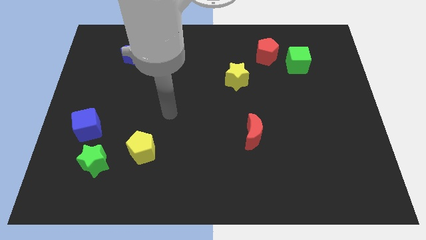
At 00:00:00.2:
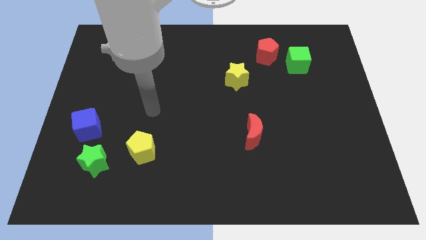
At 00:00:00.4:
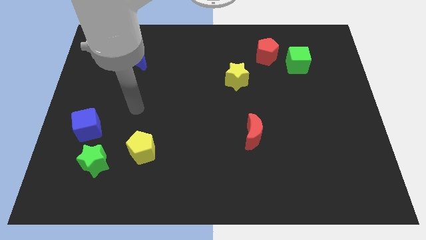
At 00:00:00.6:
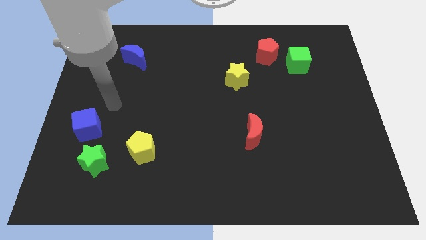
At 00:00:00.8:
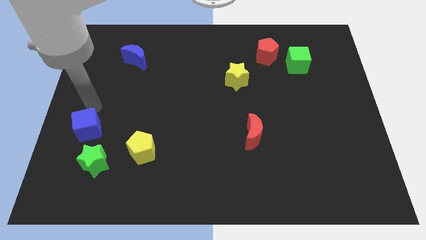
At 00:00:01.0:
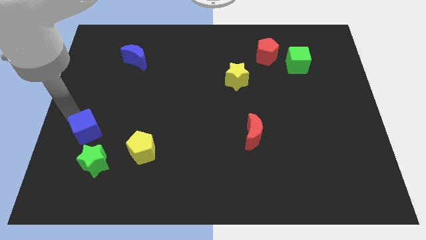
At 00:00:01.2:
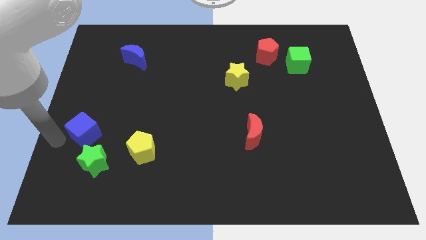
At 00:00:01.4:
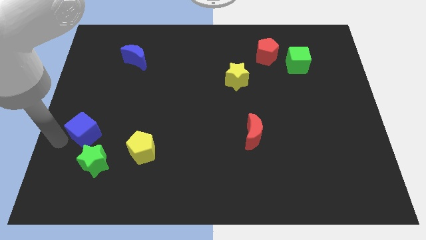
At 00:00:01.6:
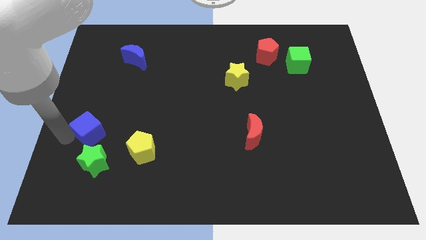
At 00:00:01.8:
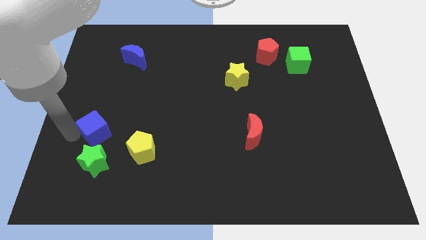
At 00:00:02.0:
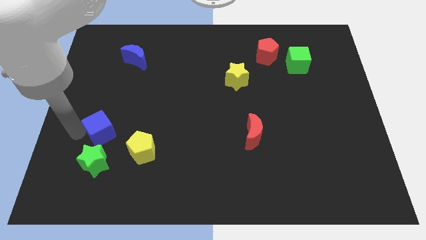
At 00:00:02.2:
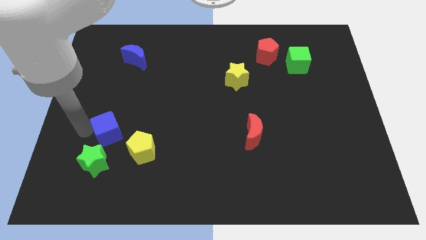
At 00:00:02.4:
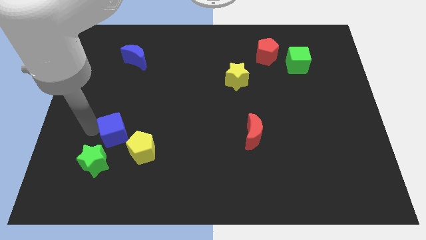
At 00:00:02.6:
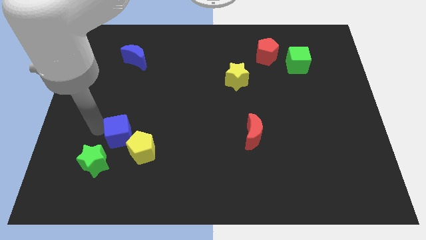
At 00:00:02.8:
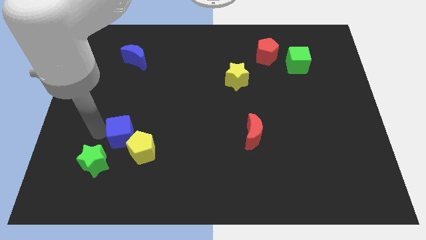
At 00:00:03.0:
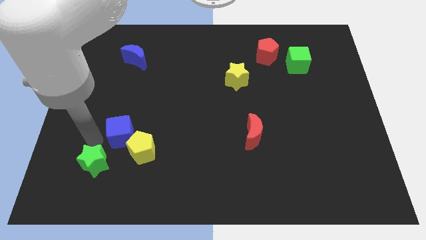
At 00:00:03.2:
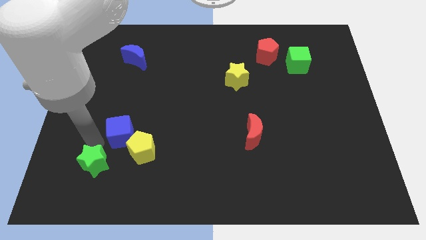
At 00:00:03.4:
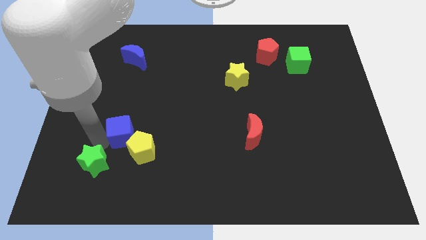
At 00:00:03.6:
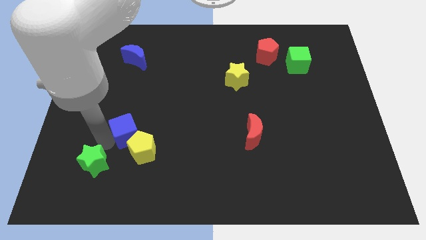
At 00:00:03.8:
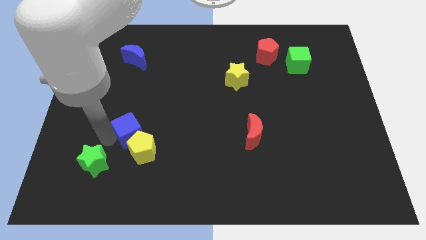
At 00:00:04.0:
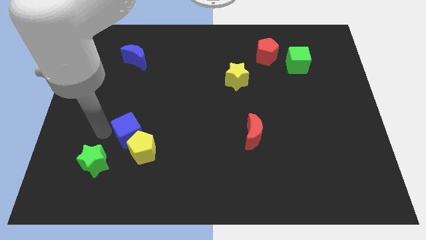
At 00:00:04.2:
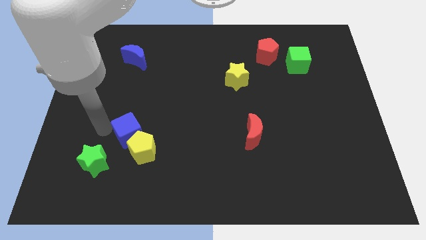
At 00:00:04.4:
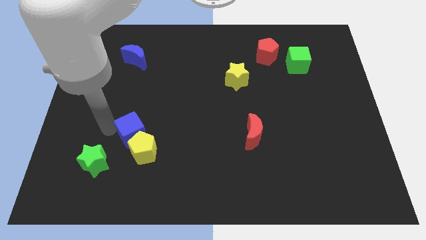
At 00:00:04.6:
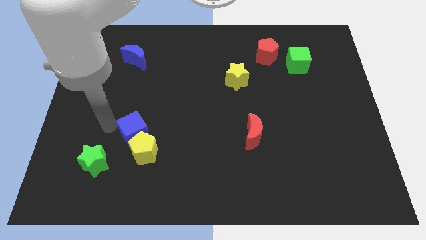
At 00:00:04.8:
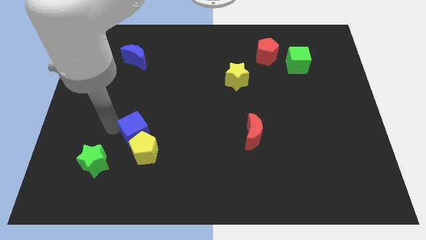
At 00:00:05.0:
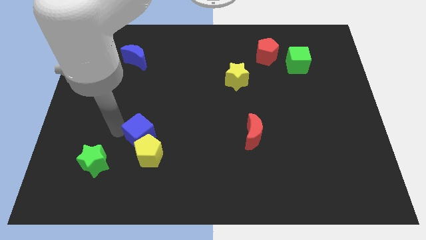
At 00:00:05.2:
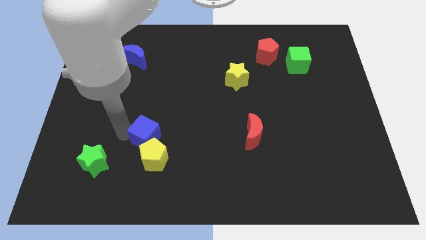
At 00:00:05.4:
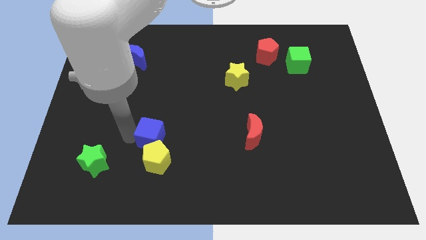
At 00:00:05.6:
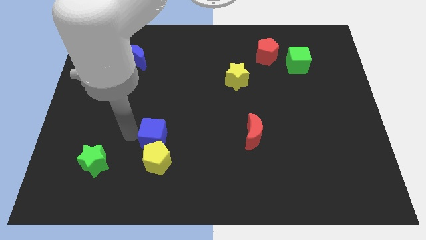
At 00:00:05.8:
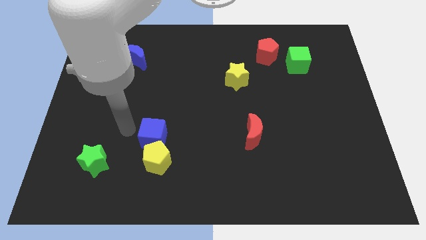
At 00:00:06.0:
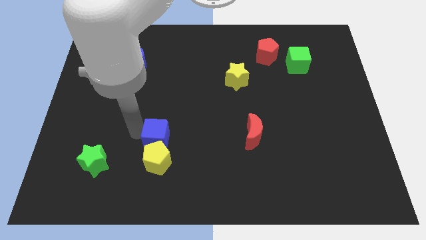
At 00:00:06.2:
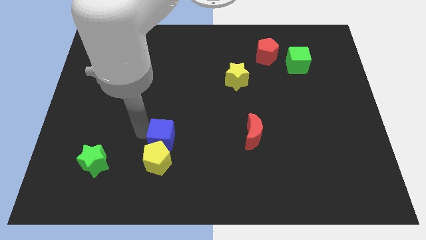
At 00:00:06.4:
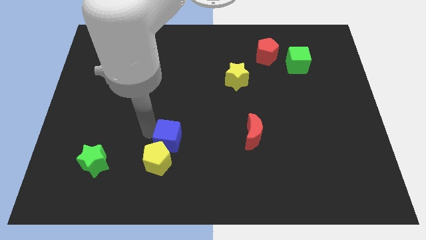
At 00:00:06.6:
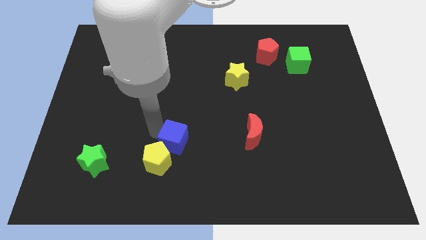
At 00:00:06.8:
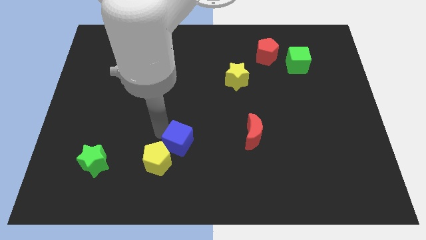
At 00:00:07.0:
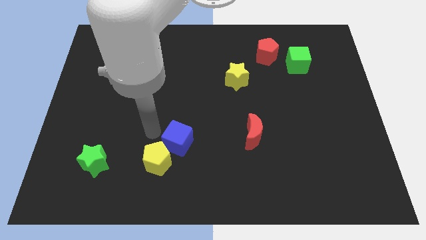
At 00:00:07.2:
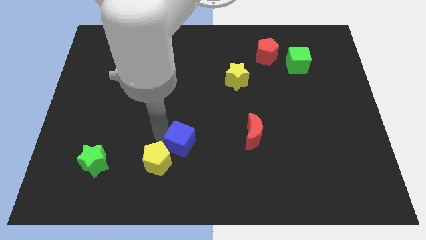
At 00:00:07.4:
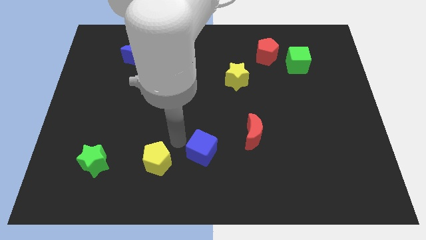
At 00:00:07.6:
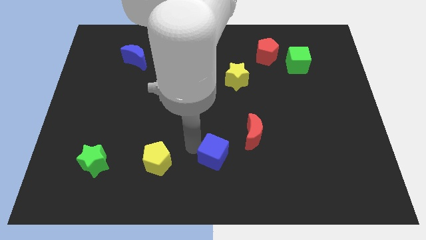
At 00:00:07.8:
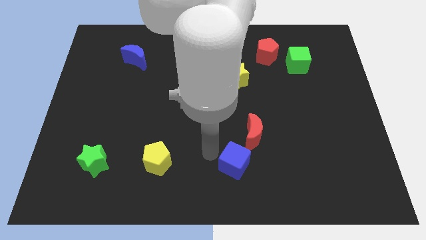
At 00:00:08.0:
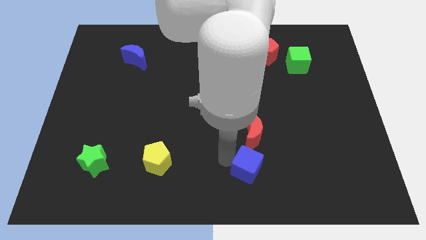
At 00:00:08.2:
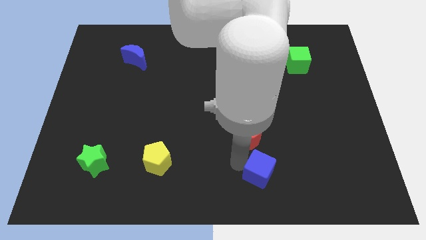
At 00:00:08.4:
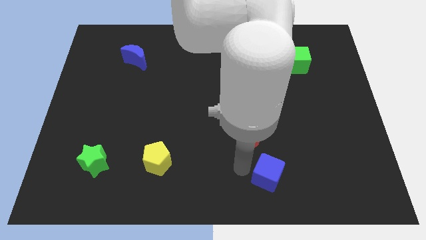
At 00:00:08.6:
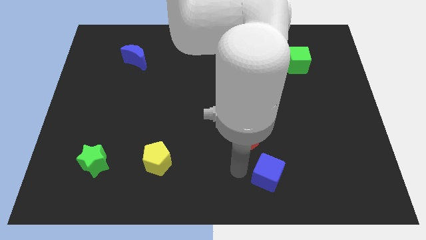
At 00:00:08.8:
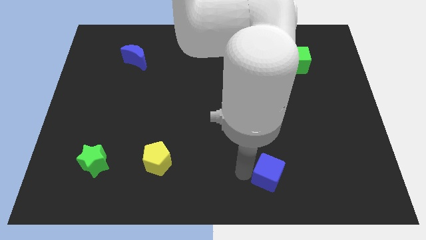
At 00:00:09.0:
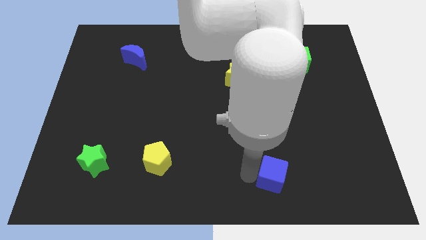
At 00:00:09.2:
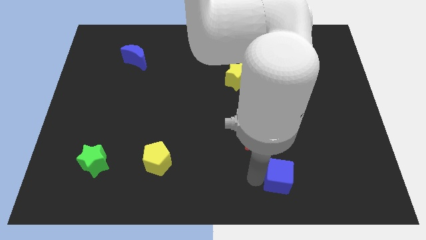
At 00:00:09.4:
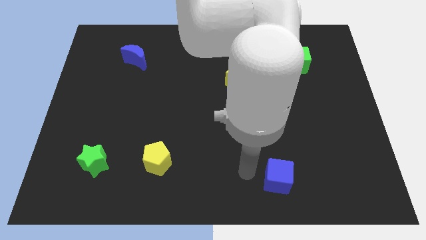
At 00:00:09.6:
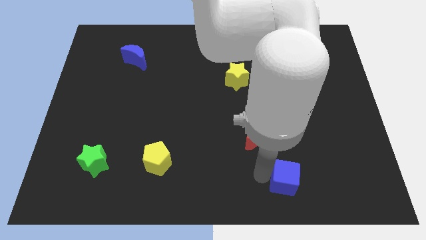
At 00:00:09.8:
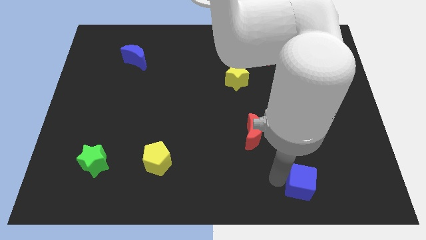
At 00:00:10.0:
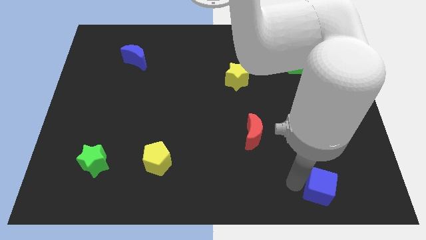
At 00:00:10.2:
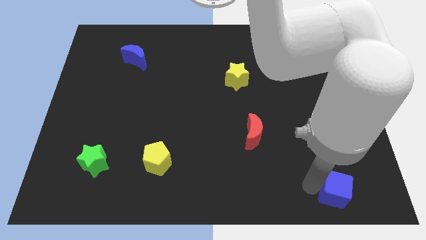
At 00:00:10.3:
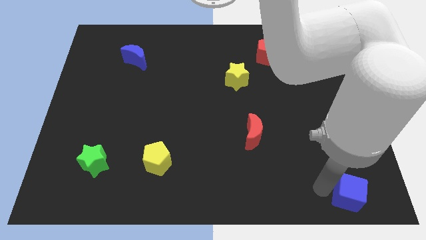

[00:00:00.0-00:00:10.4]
slide the blue cube to the lower right corner

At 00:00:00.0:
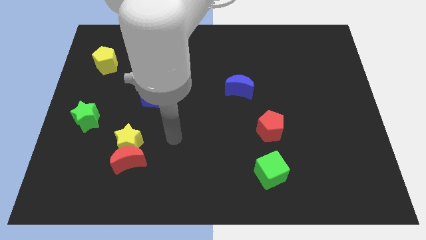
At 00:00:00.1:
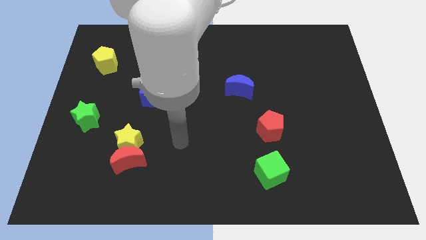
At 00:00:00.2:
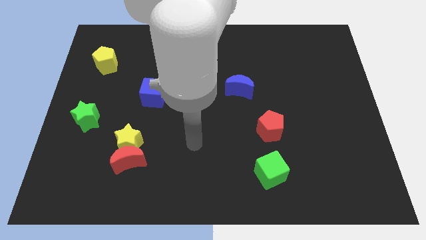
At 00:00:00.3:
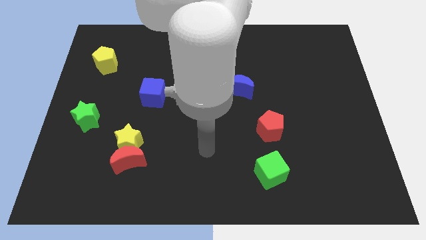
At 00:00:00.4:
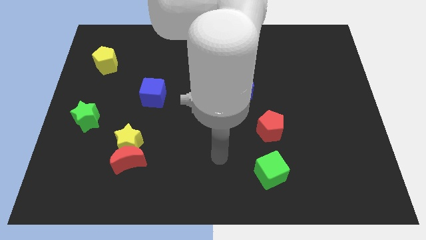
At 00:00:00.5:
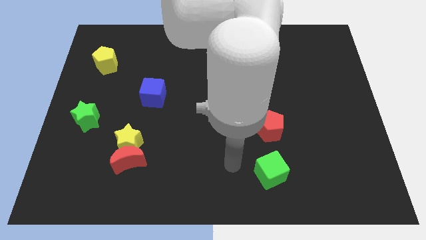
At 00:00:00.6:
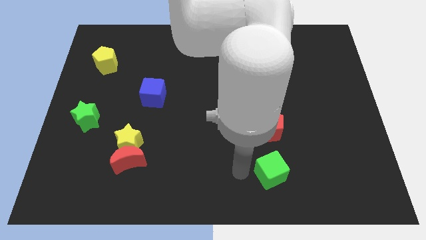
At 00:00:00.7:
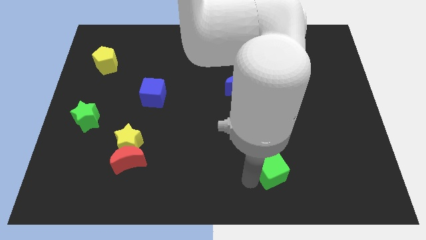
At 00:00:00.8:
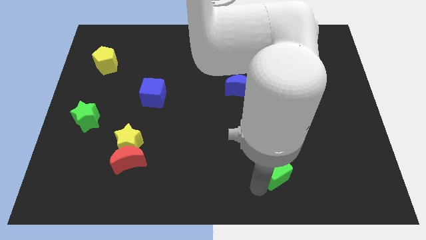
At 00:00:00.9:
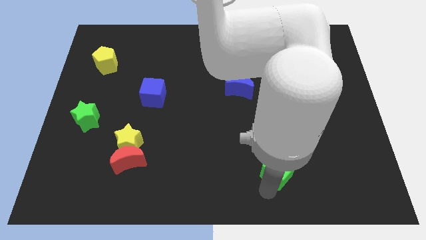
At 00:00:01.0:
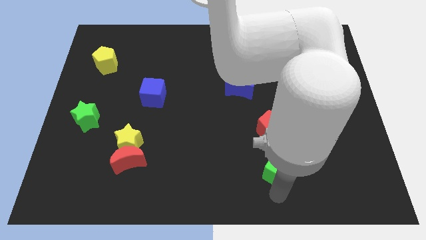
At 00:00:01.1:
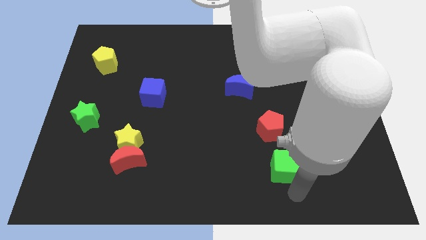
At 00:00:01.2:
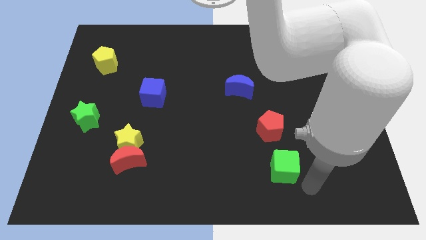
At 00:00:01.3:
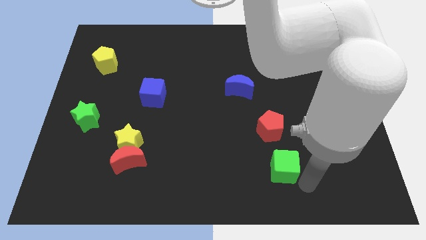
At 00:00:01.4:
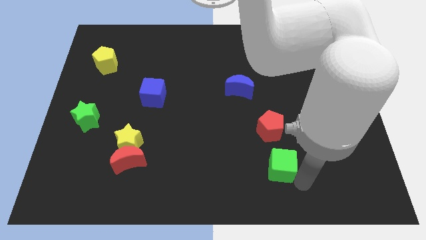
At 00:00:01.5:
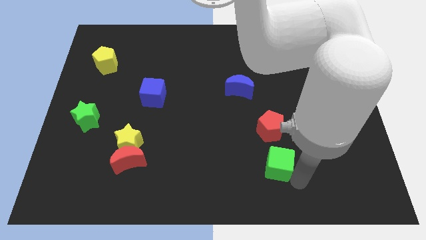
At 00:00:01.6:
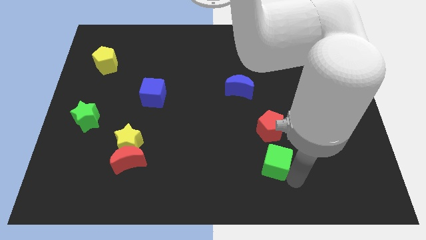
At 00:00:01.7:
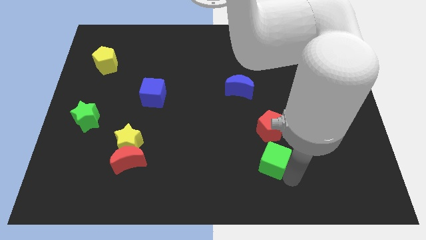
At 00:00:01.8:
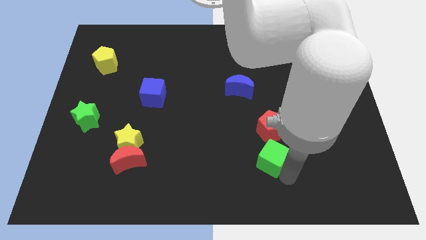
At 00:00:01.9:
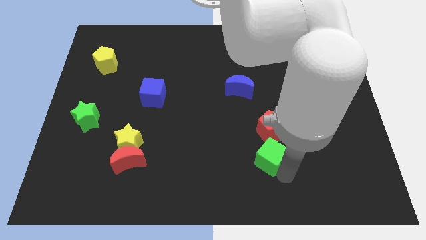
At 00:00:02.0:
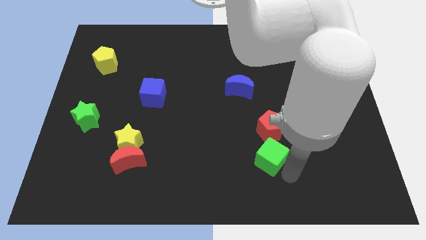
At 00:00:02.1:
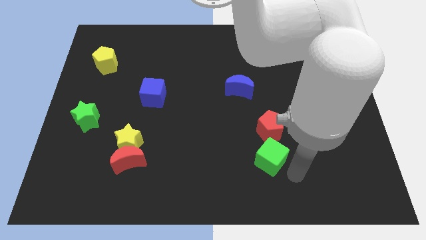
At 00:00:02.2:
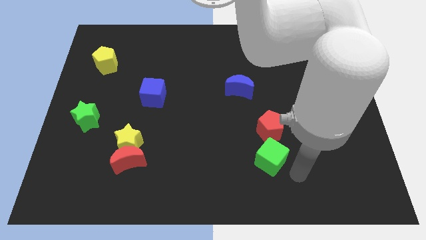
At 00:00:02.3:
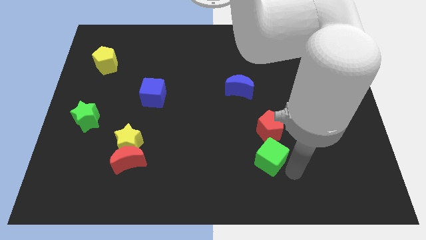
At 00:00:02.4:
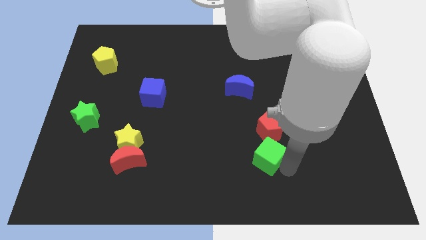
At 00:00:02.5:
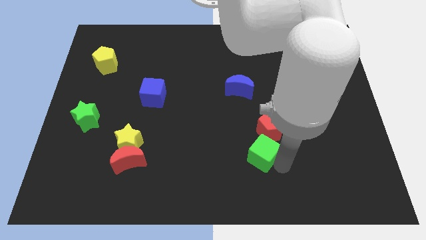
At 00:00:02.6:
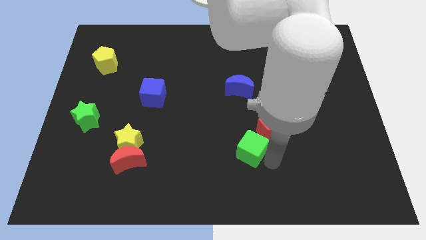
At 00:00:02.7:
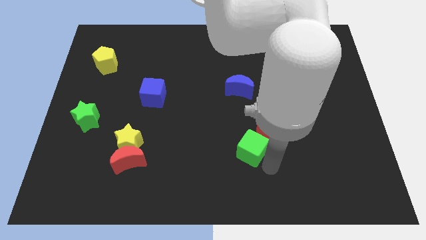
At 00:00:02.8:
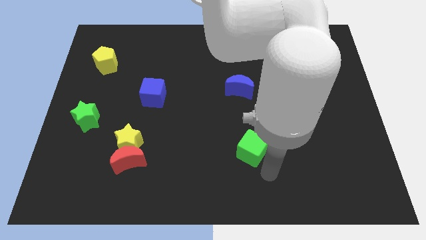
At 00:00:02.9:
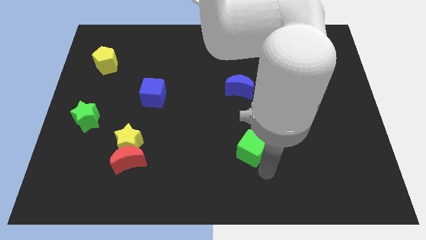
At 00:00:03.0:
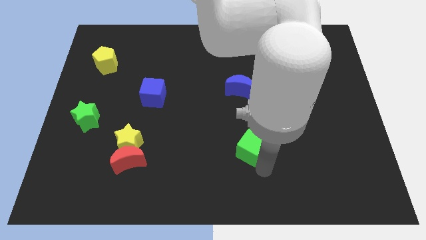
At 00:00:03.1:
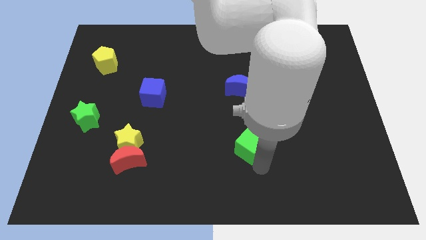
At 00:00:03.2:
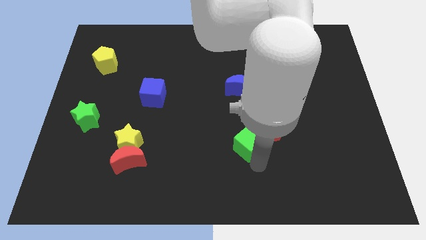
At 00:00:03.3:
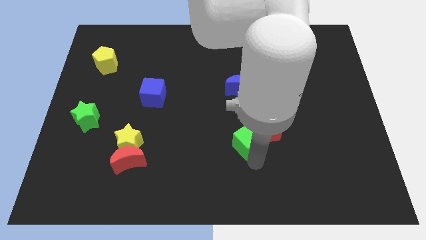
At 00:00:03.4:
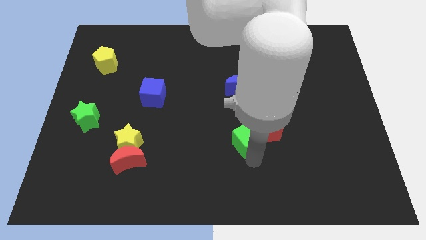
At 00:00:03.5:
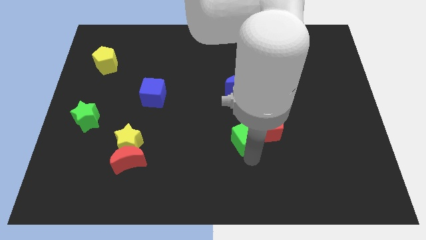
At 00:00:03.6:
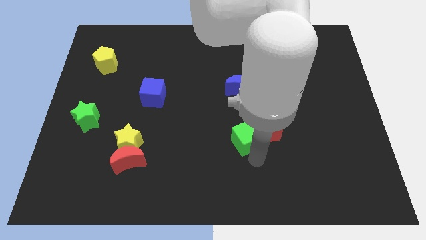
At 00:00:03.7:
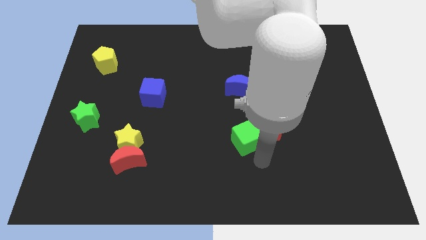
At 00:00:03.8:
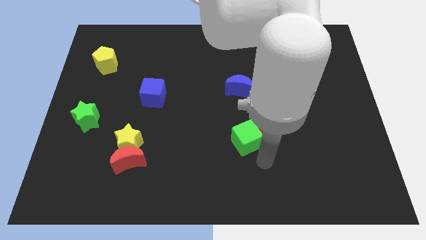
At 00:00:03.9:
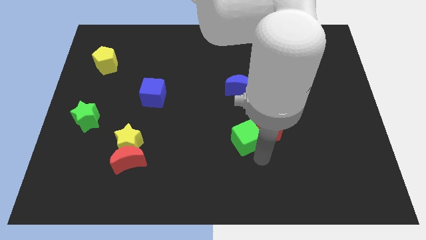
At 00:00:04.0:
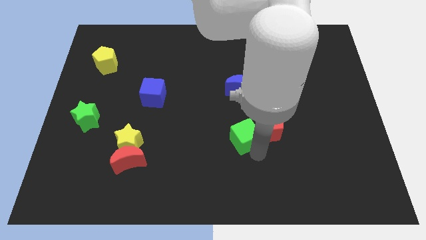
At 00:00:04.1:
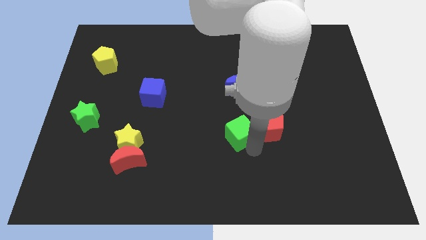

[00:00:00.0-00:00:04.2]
slide the green cube to the middle of the board
